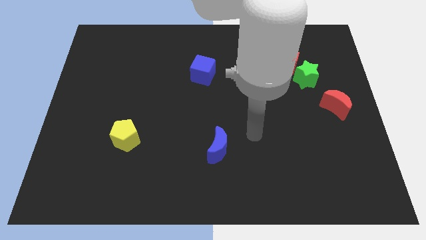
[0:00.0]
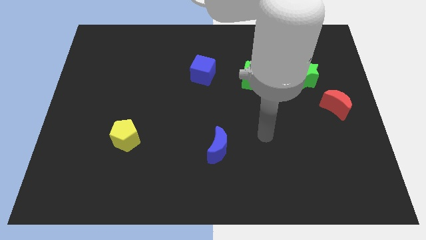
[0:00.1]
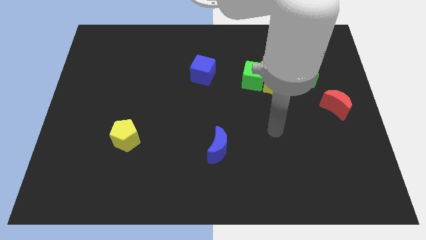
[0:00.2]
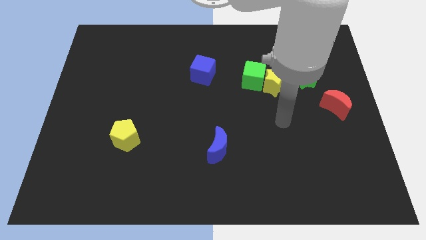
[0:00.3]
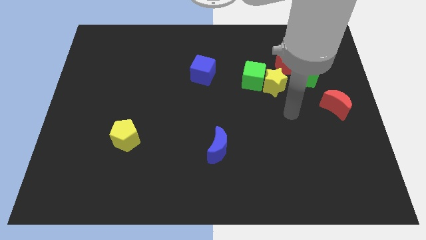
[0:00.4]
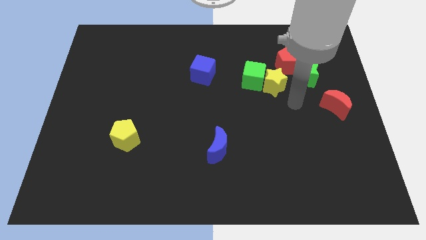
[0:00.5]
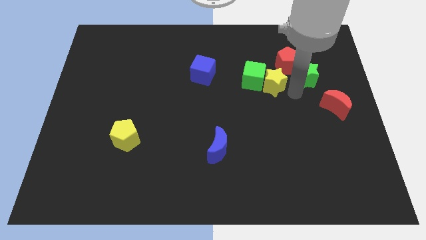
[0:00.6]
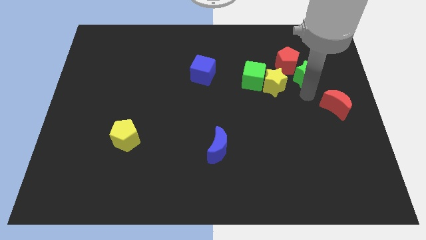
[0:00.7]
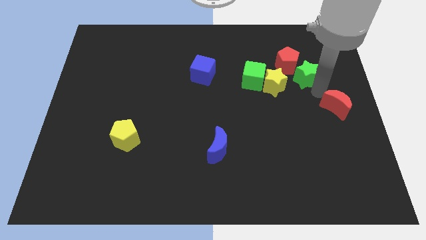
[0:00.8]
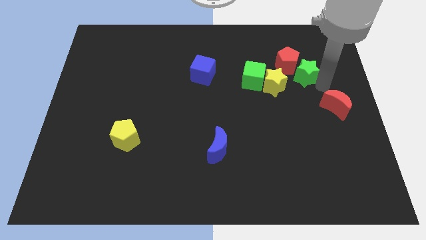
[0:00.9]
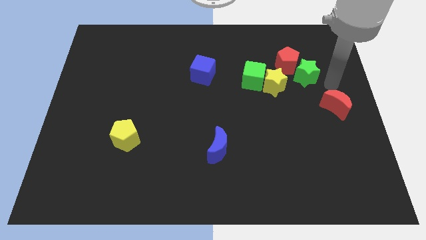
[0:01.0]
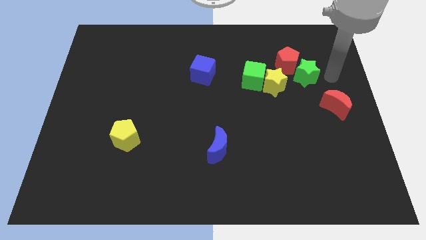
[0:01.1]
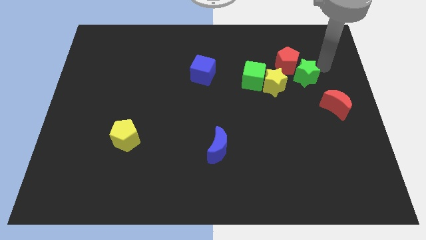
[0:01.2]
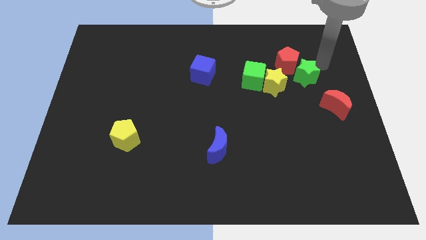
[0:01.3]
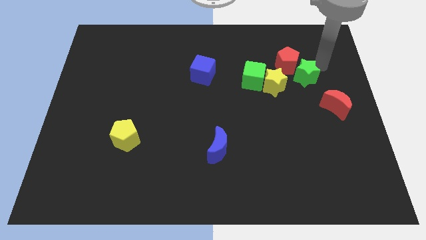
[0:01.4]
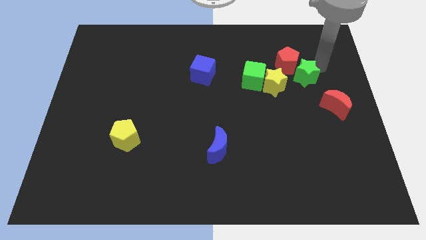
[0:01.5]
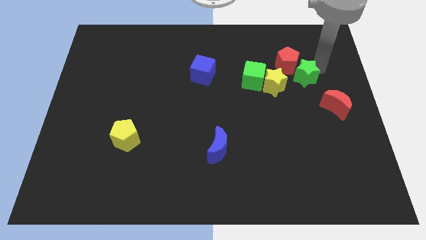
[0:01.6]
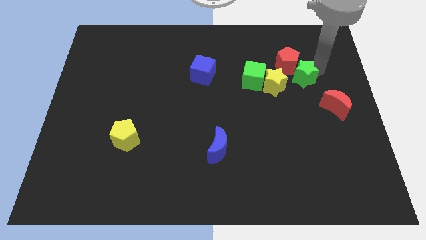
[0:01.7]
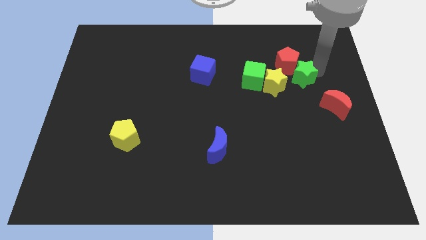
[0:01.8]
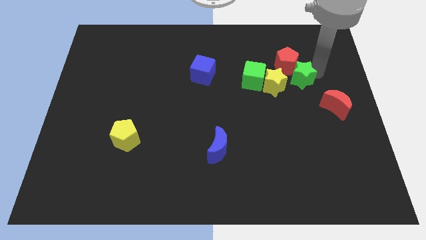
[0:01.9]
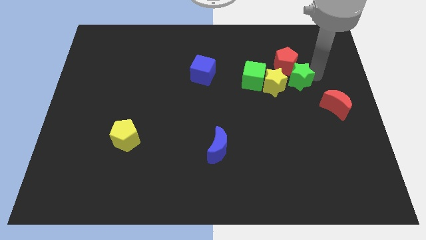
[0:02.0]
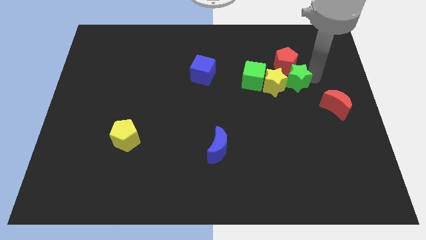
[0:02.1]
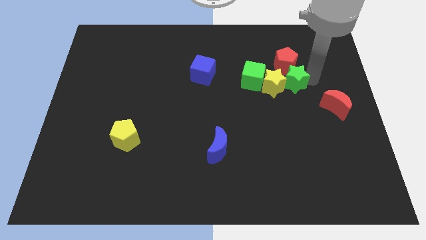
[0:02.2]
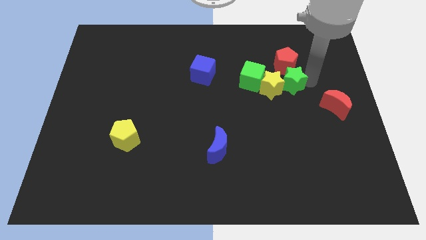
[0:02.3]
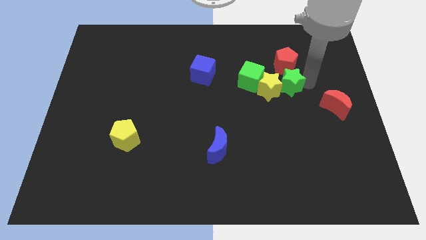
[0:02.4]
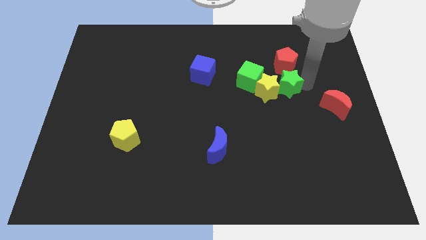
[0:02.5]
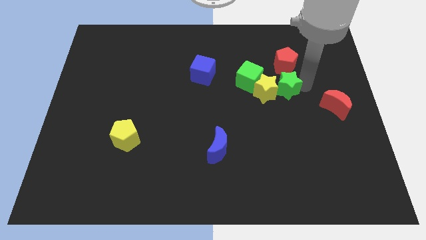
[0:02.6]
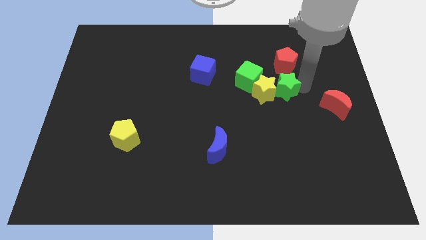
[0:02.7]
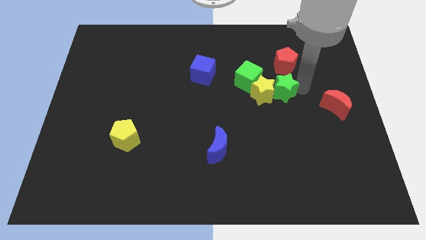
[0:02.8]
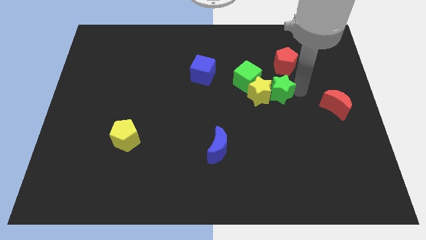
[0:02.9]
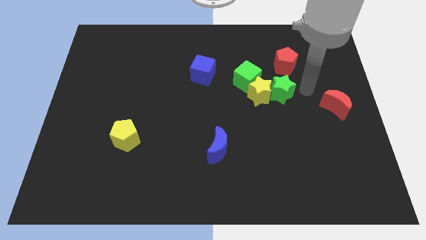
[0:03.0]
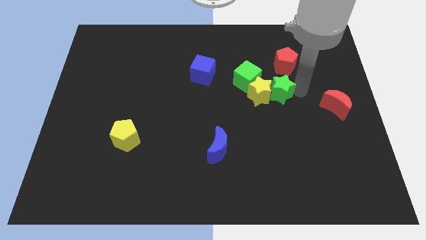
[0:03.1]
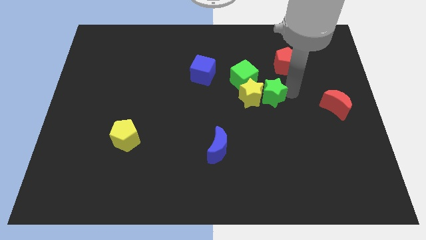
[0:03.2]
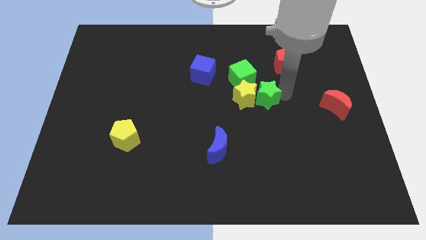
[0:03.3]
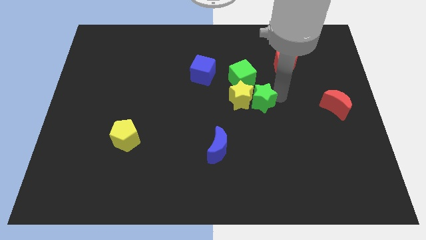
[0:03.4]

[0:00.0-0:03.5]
push the green star to the center

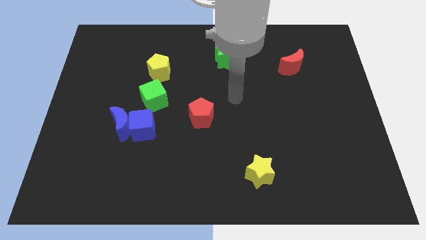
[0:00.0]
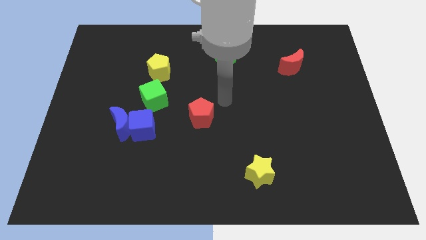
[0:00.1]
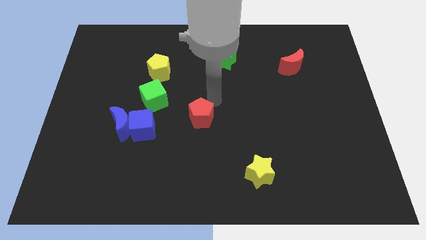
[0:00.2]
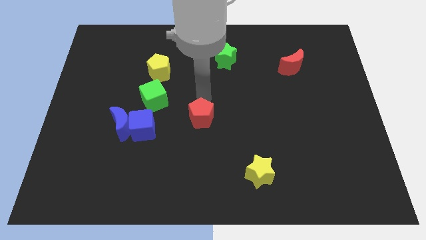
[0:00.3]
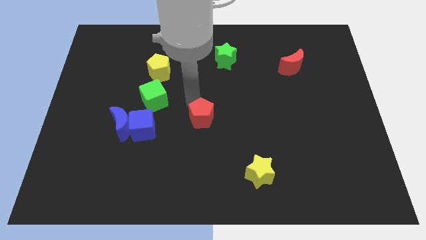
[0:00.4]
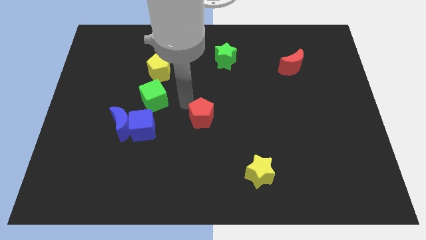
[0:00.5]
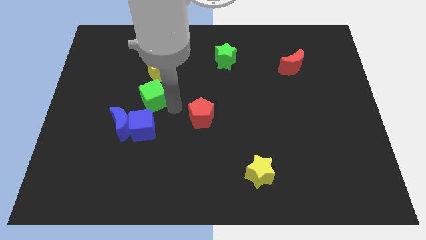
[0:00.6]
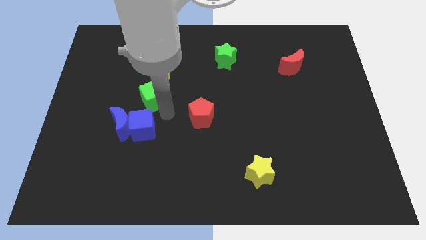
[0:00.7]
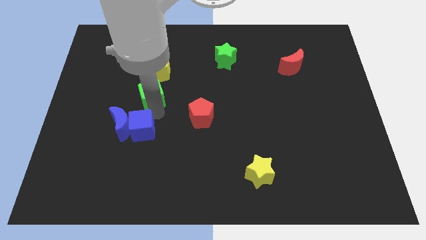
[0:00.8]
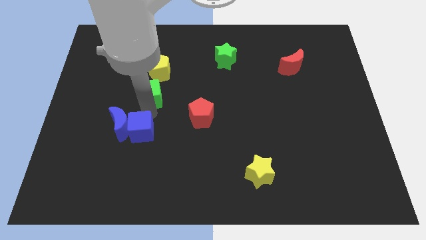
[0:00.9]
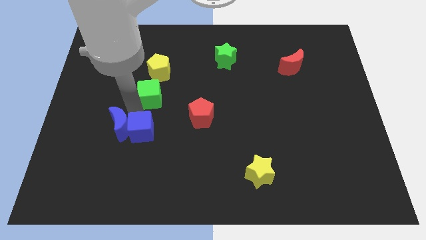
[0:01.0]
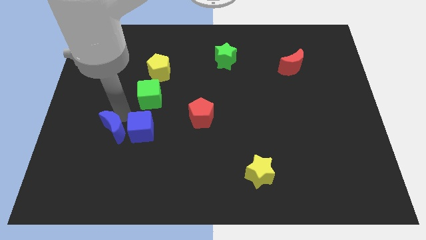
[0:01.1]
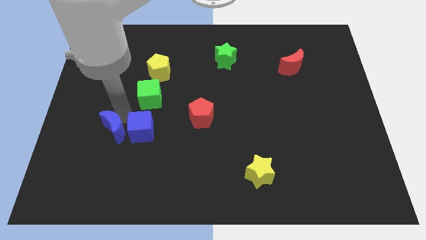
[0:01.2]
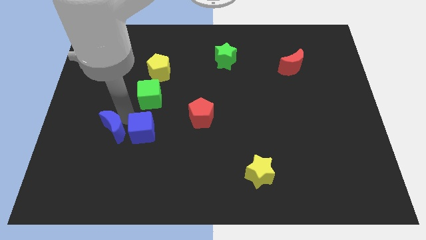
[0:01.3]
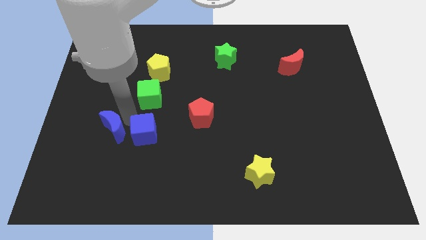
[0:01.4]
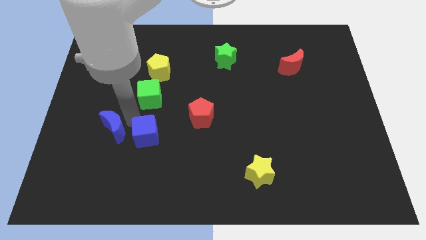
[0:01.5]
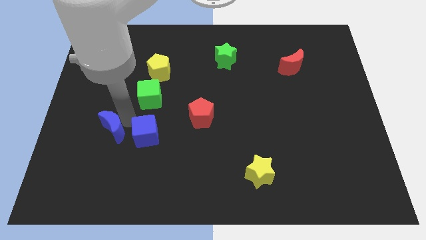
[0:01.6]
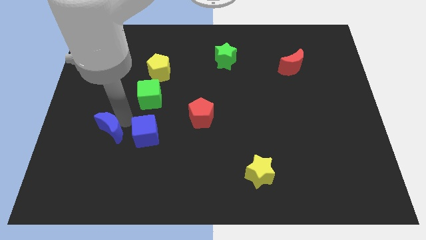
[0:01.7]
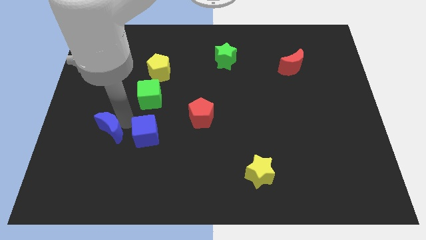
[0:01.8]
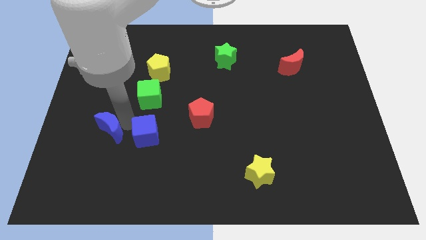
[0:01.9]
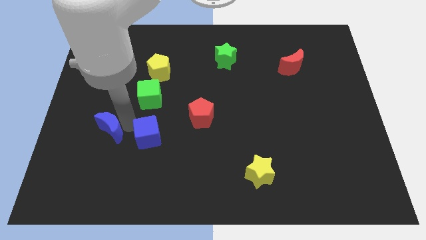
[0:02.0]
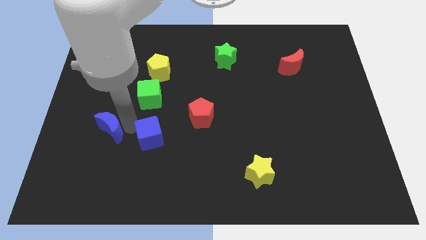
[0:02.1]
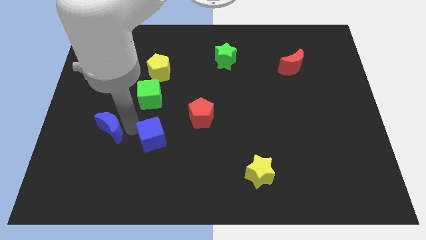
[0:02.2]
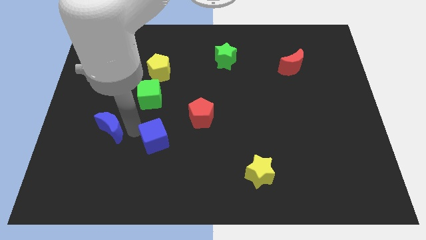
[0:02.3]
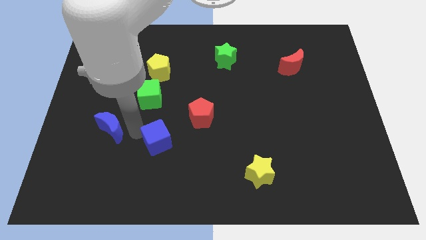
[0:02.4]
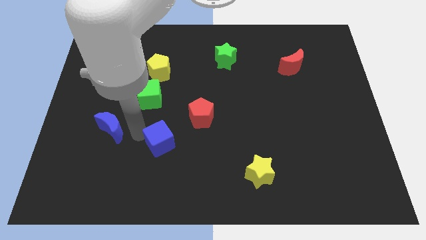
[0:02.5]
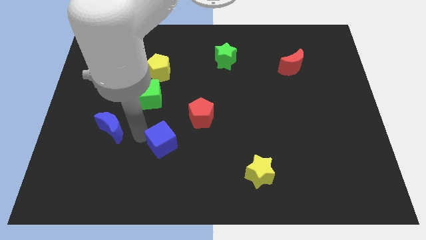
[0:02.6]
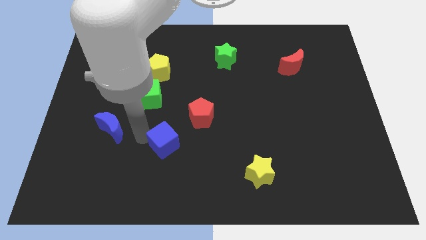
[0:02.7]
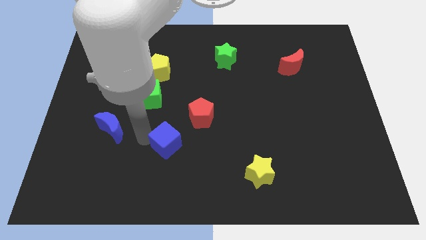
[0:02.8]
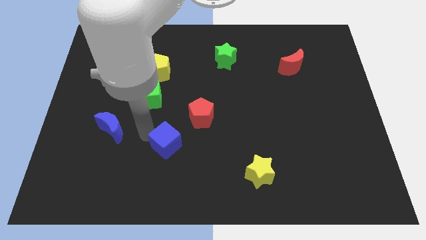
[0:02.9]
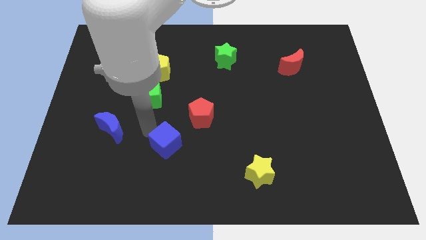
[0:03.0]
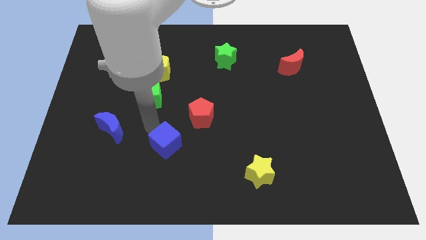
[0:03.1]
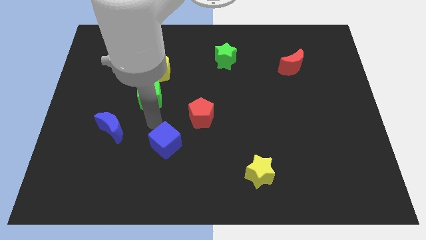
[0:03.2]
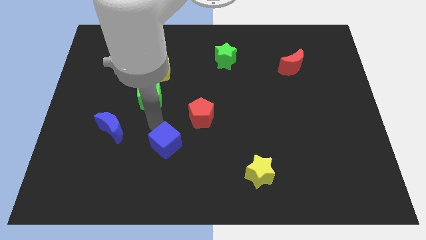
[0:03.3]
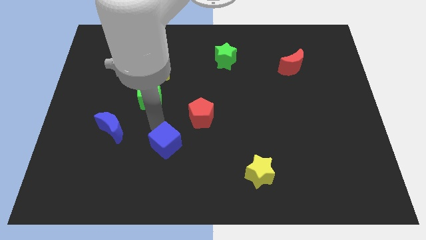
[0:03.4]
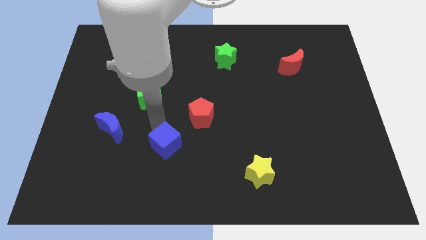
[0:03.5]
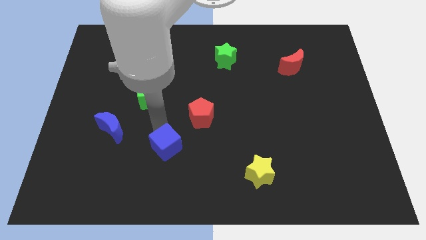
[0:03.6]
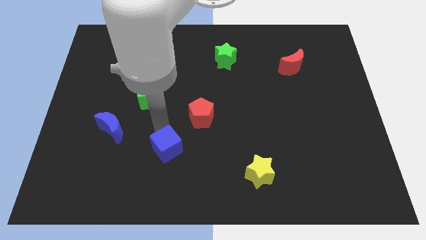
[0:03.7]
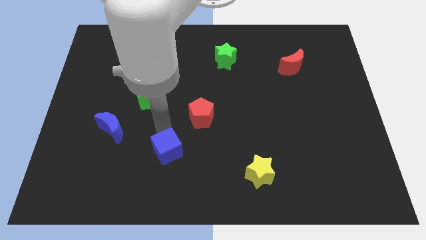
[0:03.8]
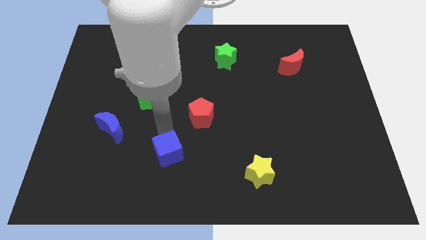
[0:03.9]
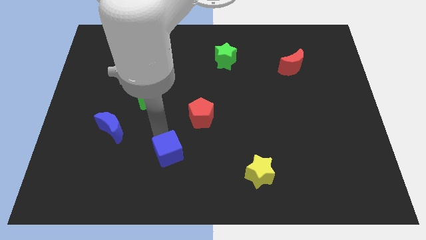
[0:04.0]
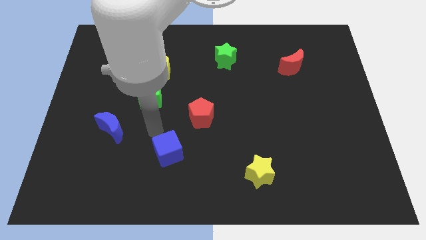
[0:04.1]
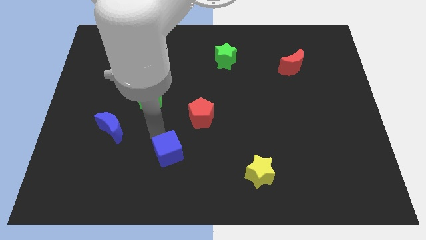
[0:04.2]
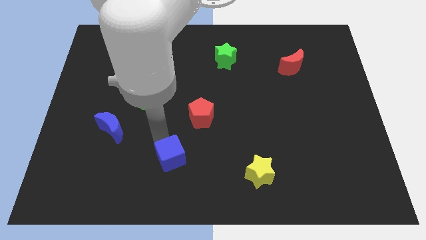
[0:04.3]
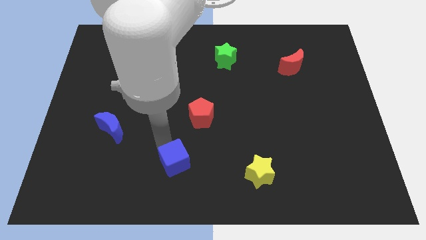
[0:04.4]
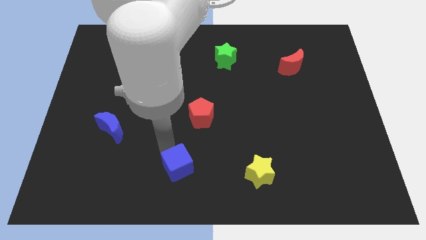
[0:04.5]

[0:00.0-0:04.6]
slide the blue cube to the bottom
